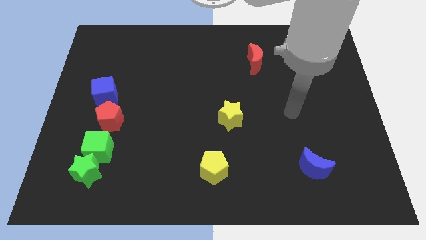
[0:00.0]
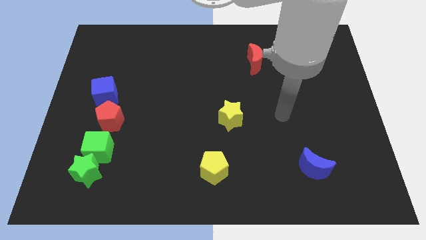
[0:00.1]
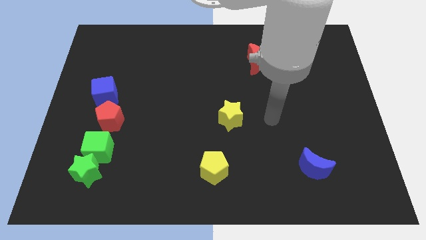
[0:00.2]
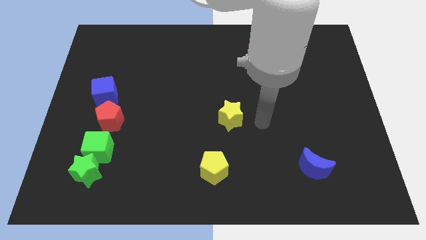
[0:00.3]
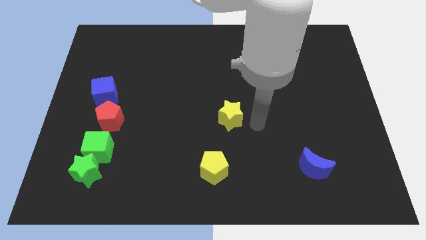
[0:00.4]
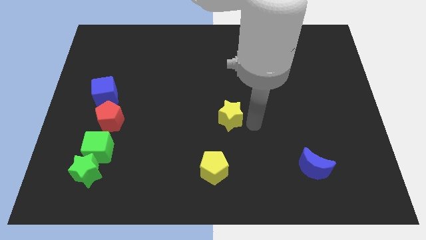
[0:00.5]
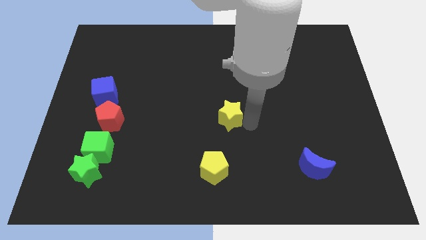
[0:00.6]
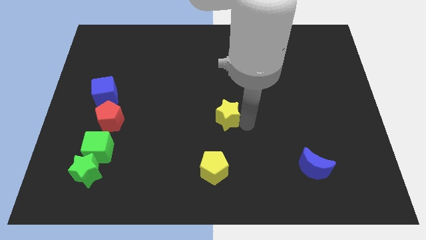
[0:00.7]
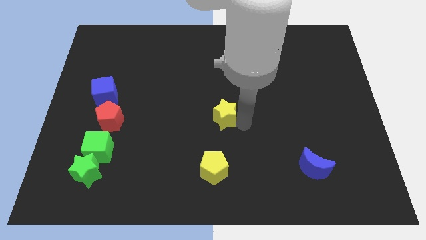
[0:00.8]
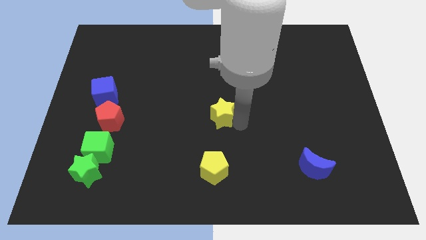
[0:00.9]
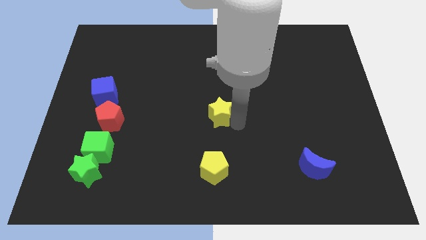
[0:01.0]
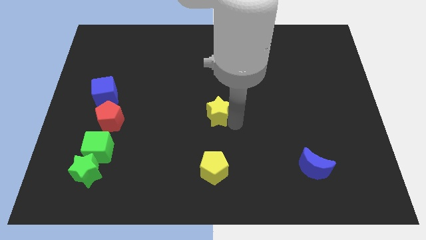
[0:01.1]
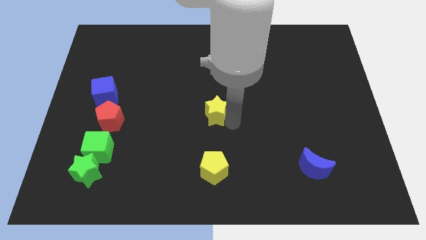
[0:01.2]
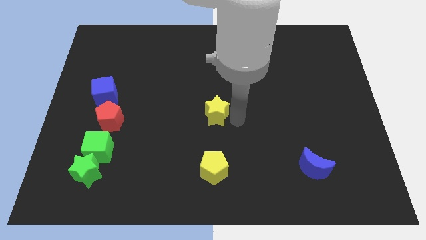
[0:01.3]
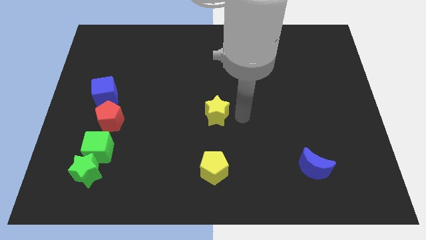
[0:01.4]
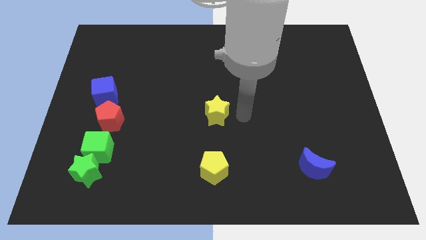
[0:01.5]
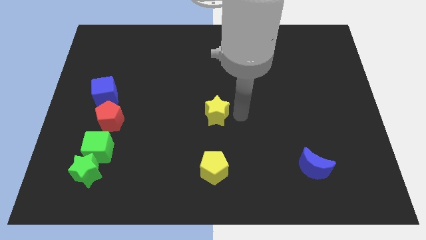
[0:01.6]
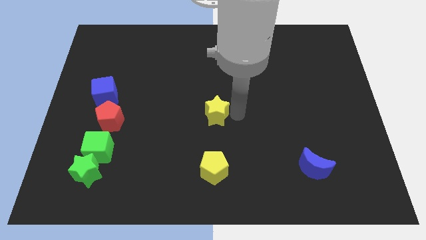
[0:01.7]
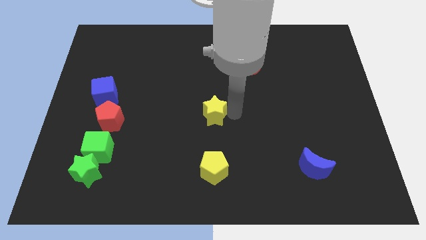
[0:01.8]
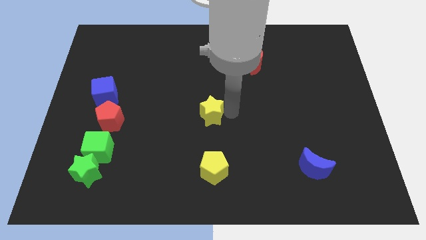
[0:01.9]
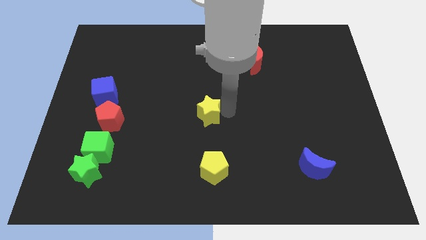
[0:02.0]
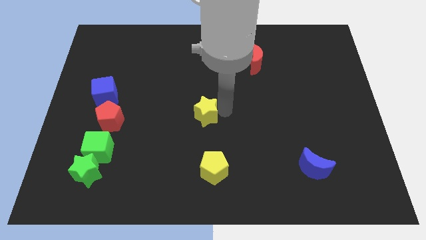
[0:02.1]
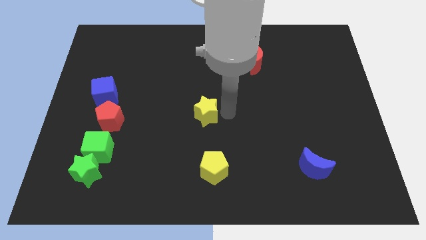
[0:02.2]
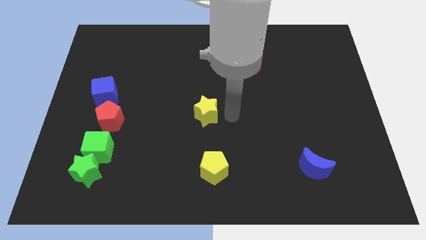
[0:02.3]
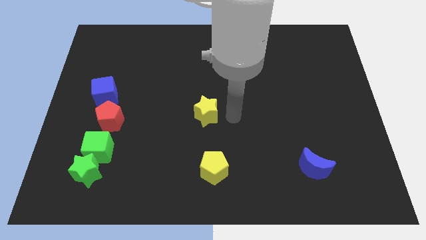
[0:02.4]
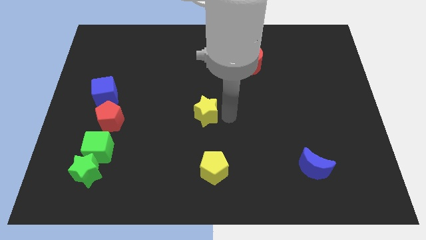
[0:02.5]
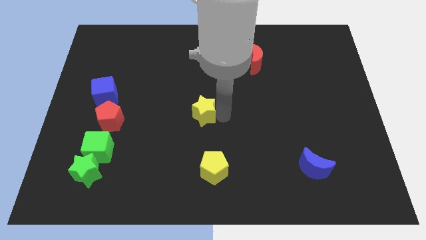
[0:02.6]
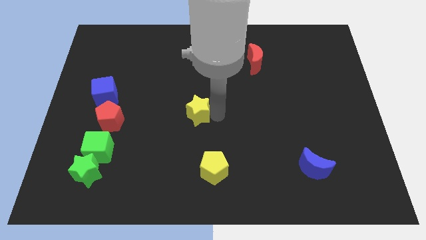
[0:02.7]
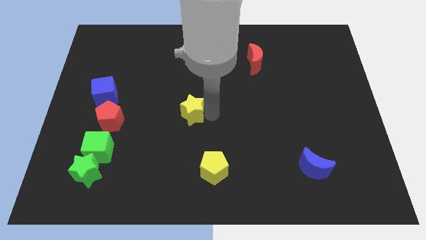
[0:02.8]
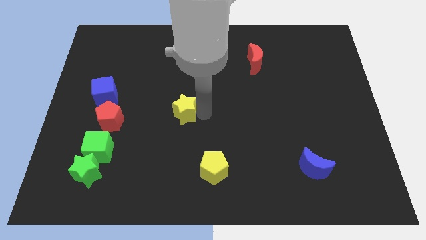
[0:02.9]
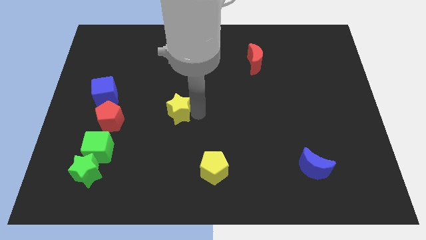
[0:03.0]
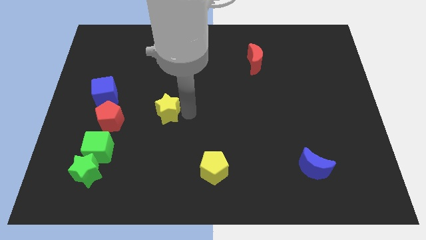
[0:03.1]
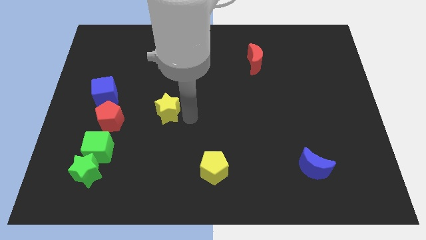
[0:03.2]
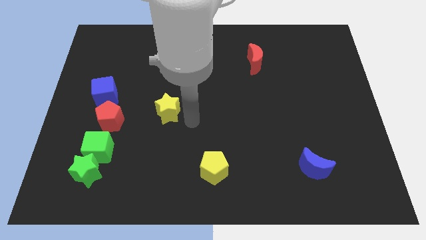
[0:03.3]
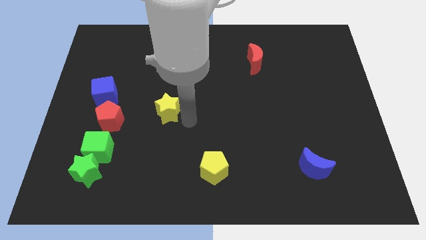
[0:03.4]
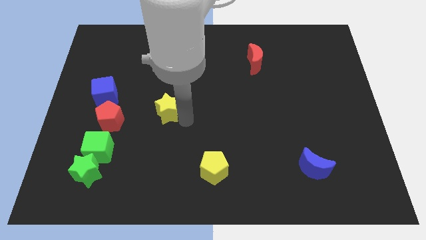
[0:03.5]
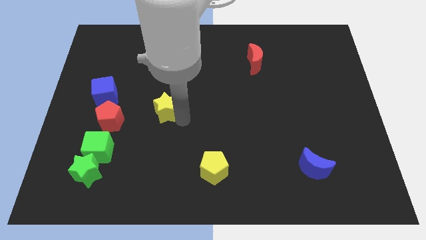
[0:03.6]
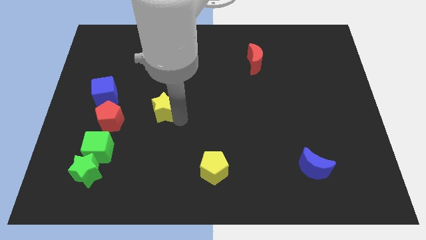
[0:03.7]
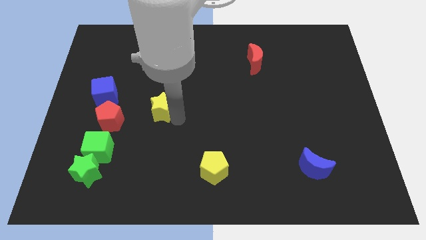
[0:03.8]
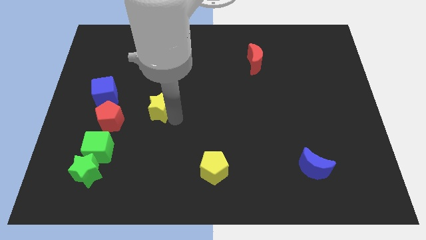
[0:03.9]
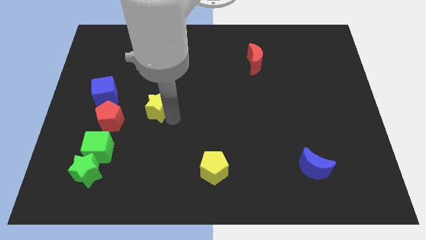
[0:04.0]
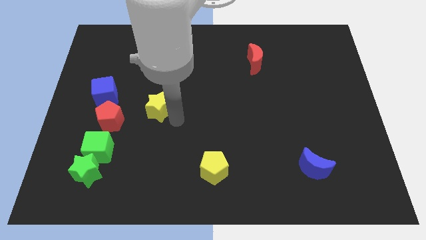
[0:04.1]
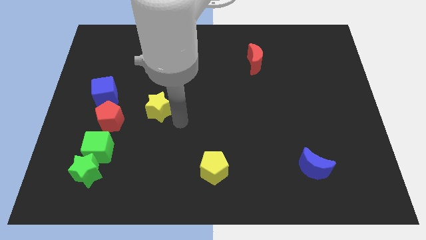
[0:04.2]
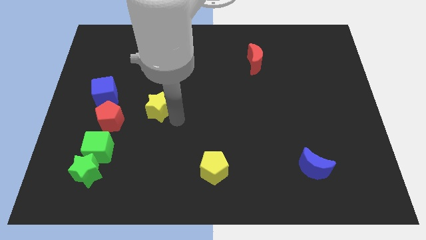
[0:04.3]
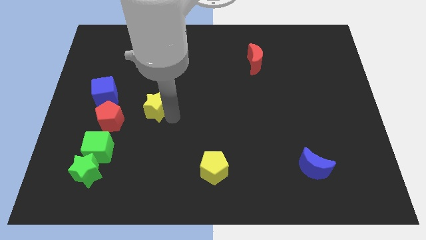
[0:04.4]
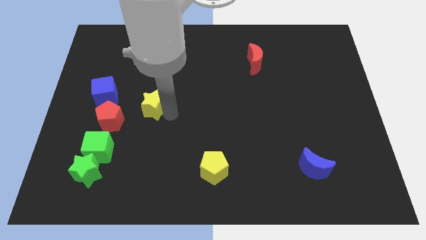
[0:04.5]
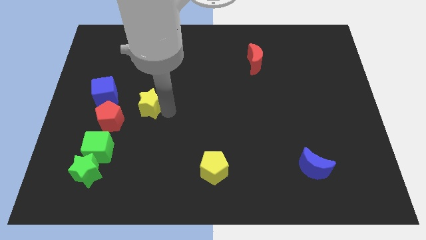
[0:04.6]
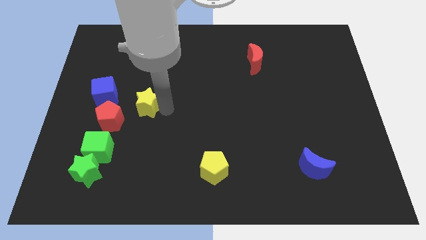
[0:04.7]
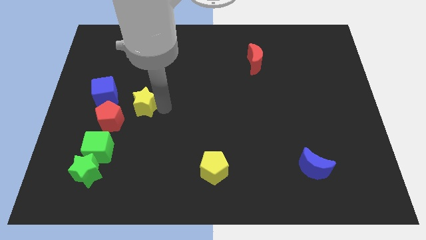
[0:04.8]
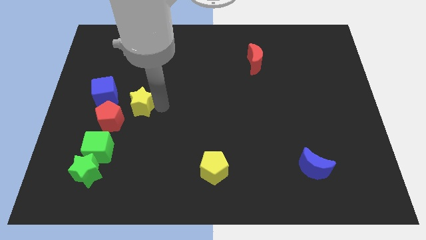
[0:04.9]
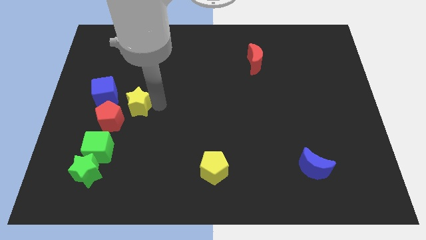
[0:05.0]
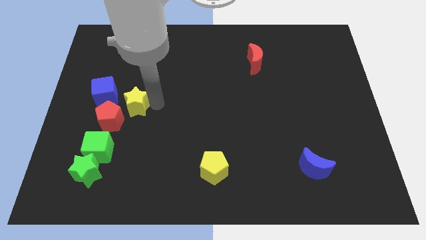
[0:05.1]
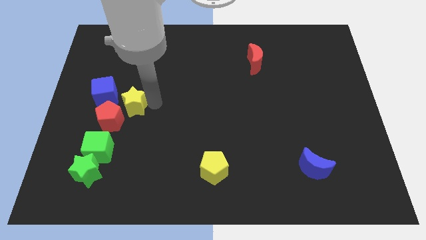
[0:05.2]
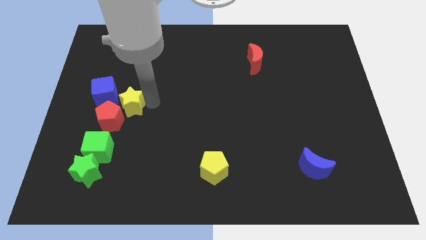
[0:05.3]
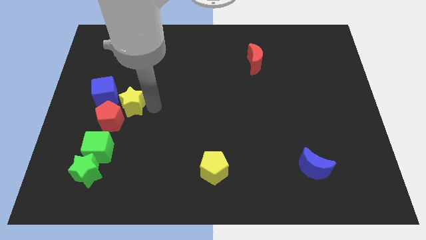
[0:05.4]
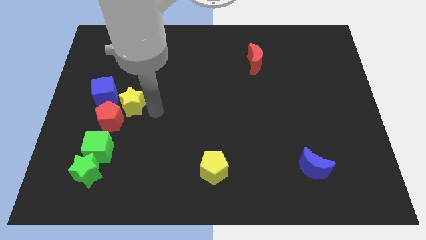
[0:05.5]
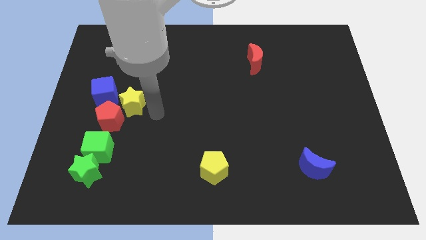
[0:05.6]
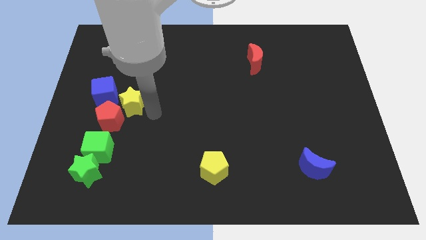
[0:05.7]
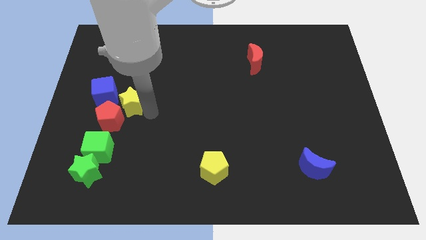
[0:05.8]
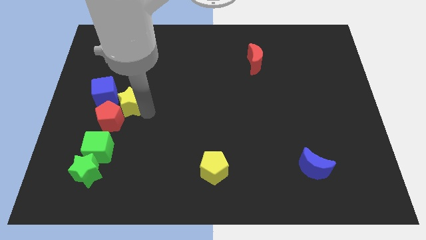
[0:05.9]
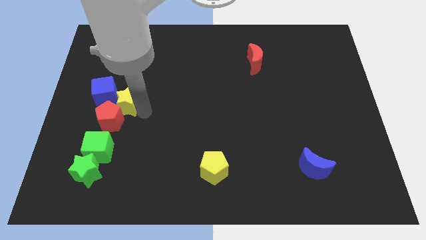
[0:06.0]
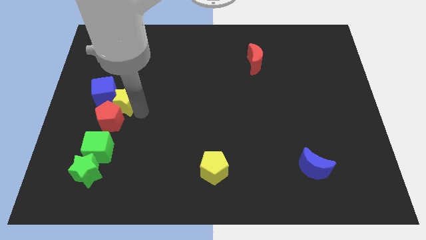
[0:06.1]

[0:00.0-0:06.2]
slide the yellow star next to the blue cube

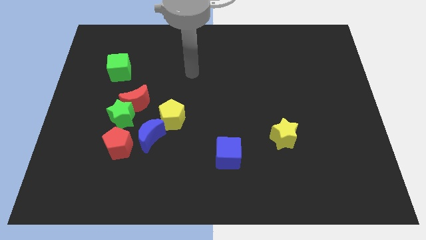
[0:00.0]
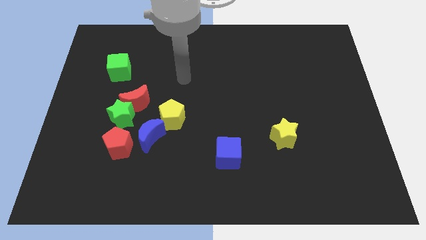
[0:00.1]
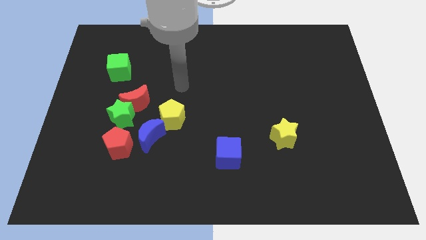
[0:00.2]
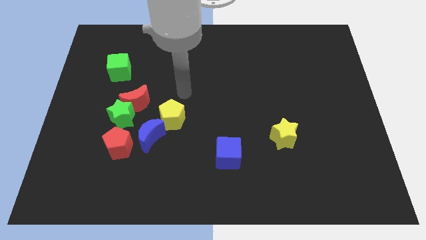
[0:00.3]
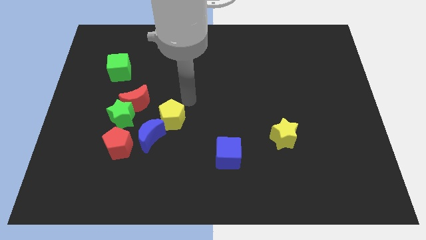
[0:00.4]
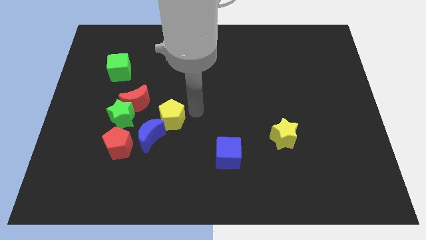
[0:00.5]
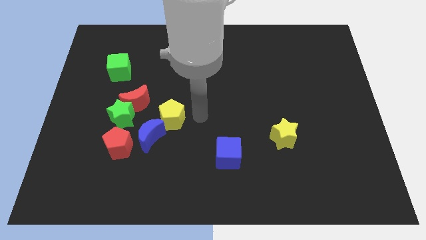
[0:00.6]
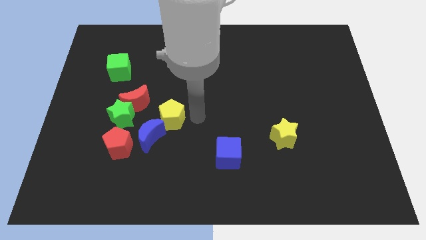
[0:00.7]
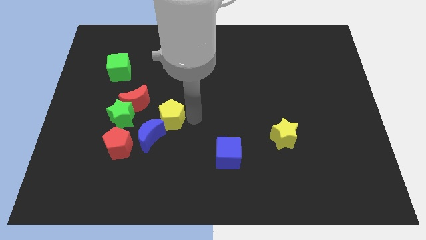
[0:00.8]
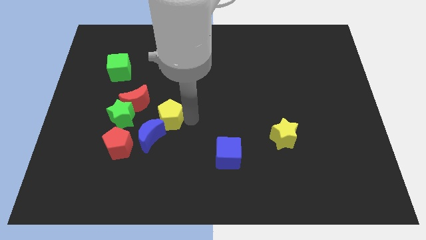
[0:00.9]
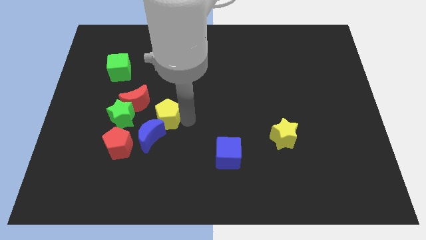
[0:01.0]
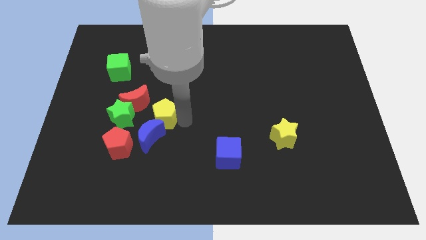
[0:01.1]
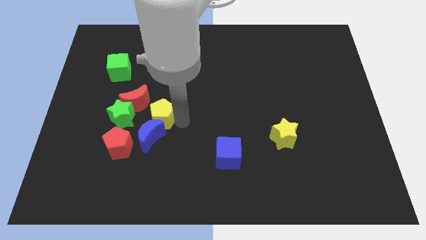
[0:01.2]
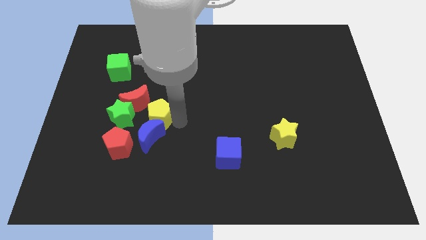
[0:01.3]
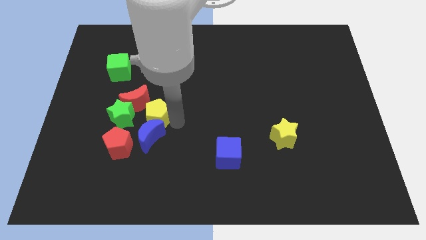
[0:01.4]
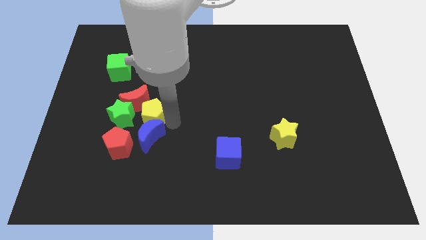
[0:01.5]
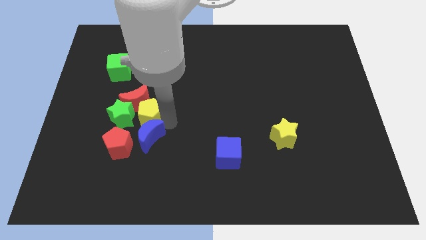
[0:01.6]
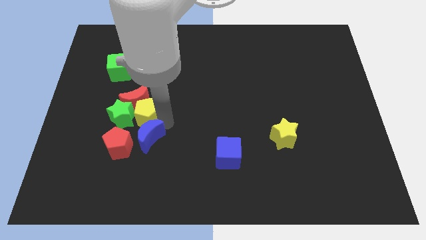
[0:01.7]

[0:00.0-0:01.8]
move the yellow pentagon towards the green star
